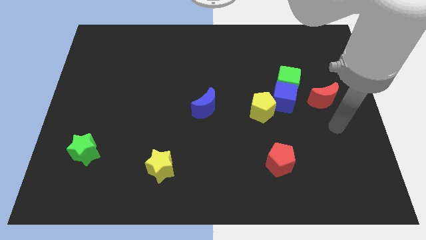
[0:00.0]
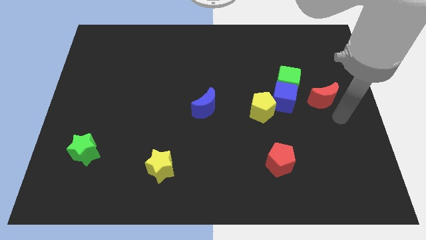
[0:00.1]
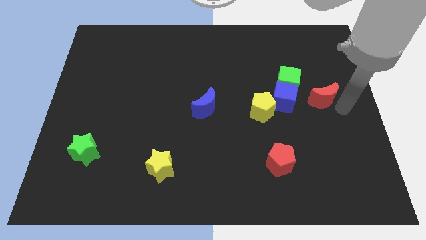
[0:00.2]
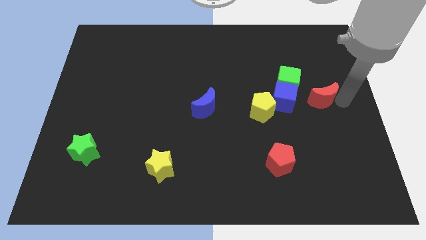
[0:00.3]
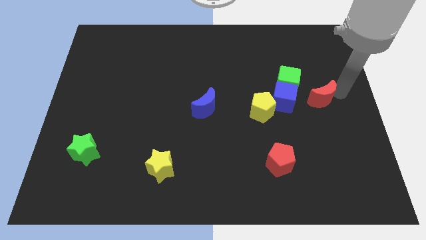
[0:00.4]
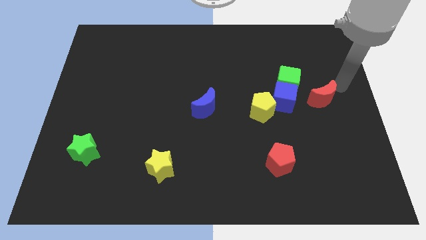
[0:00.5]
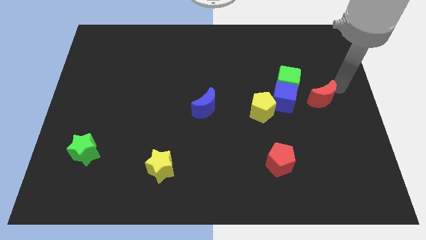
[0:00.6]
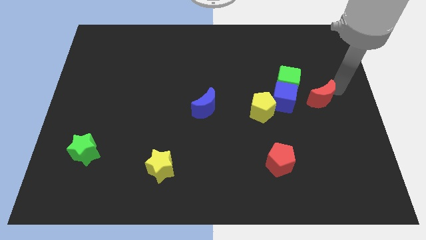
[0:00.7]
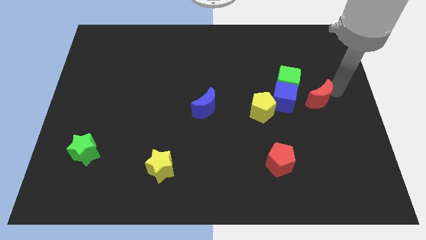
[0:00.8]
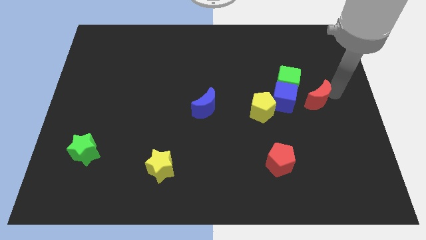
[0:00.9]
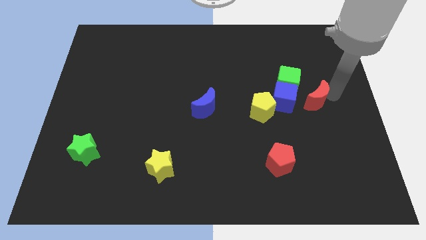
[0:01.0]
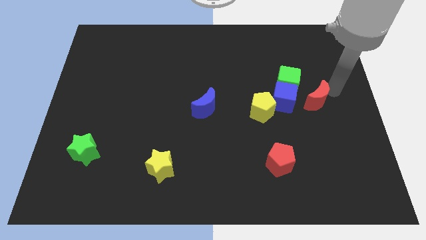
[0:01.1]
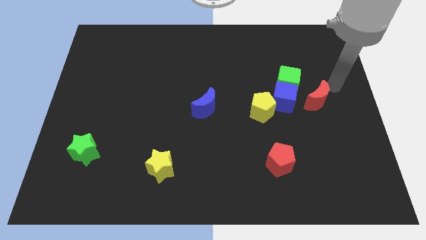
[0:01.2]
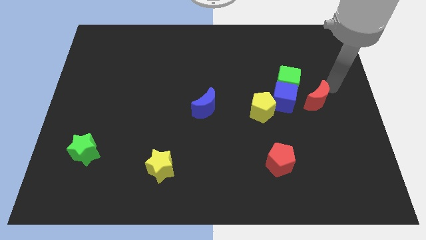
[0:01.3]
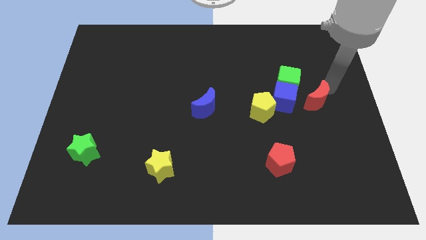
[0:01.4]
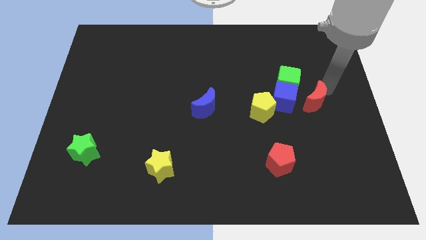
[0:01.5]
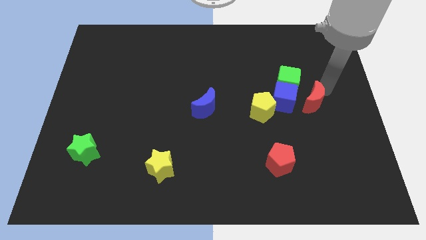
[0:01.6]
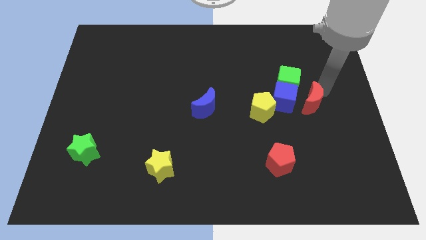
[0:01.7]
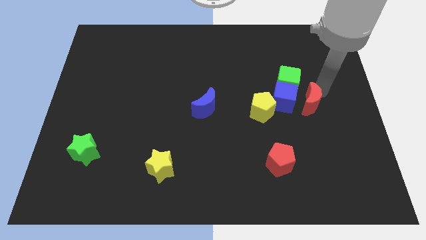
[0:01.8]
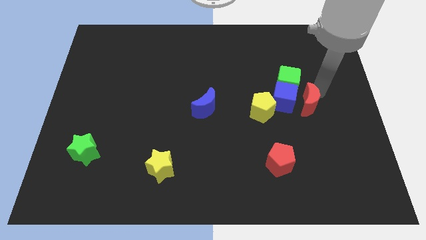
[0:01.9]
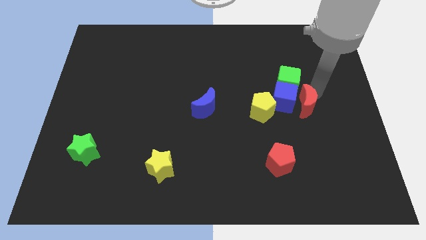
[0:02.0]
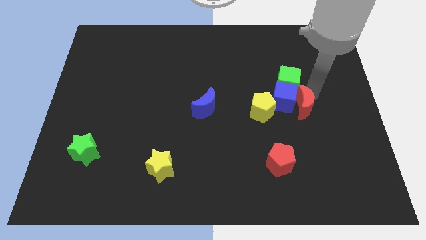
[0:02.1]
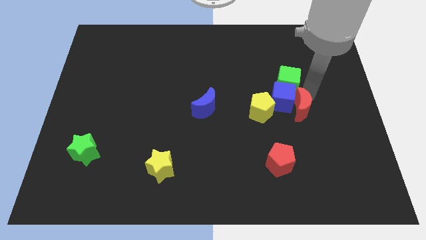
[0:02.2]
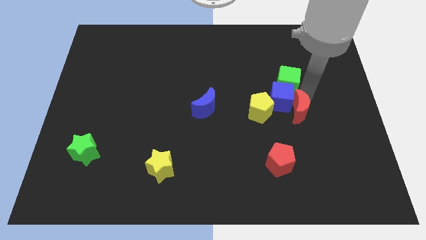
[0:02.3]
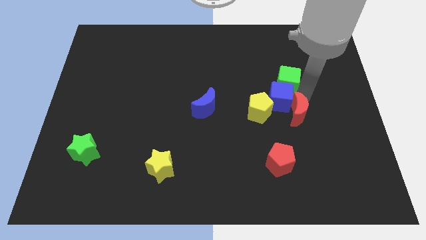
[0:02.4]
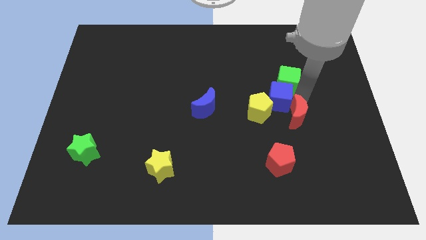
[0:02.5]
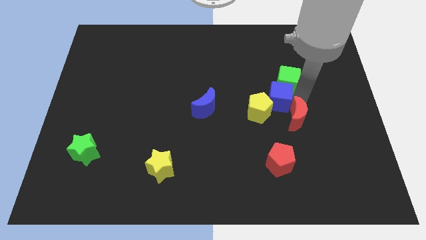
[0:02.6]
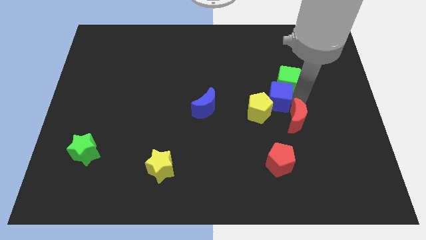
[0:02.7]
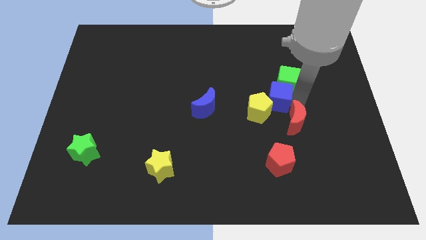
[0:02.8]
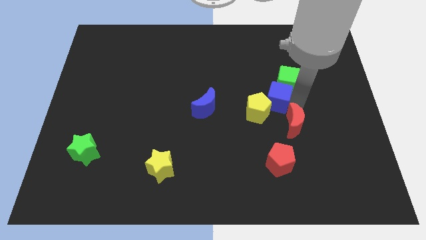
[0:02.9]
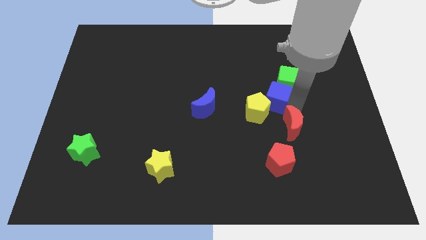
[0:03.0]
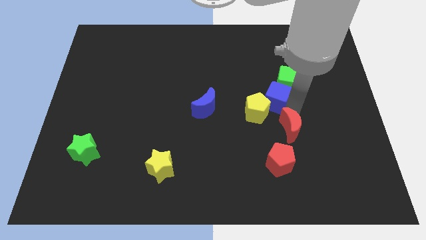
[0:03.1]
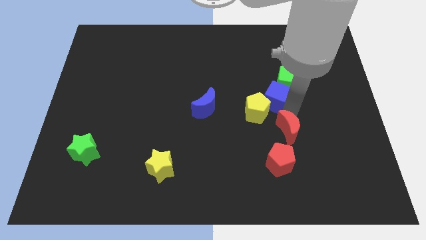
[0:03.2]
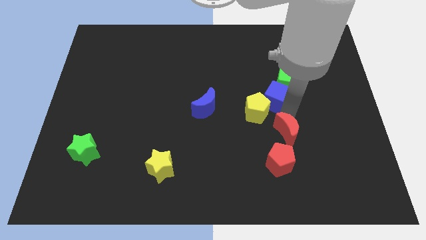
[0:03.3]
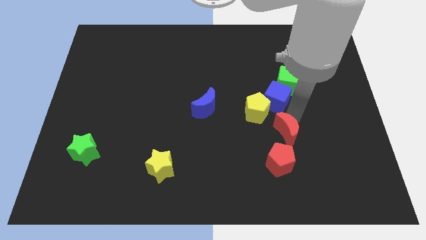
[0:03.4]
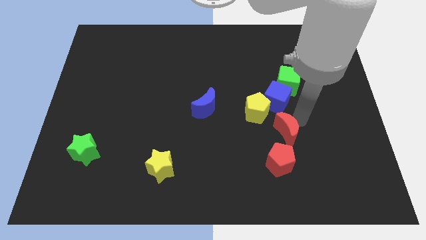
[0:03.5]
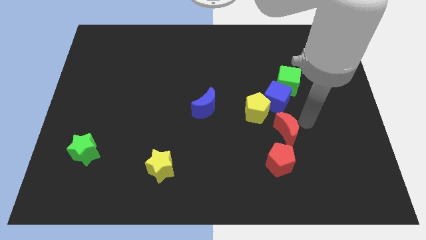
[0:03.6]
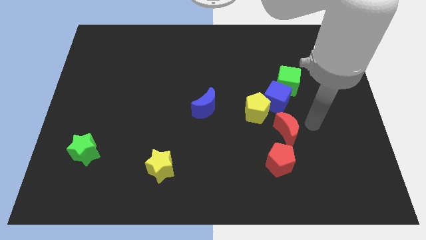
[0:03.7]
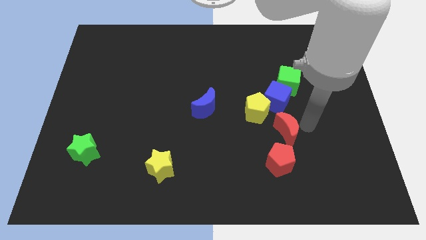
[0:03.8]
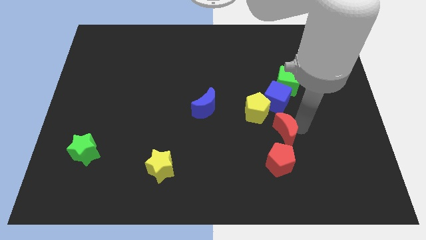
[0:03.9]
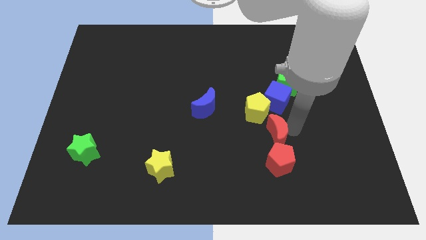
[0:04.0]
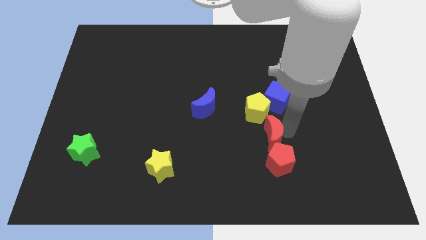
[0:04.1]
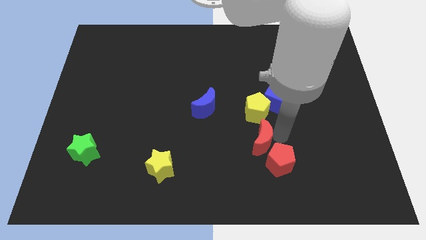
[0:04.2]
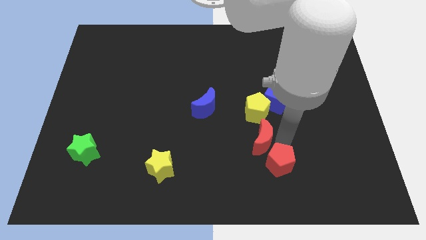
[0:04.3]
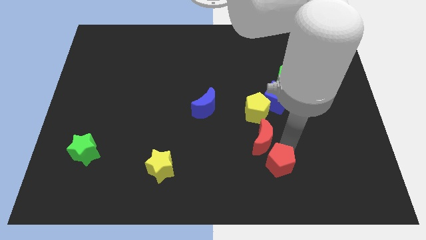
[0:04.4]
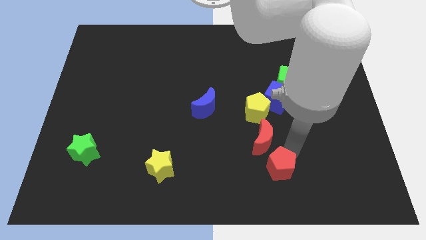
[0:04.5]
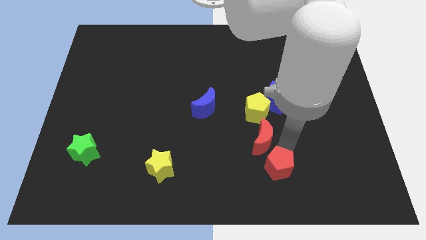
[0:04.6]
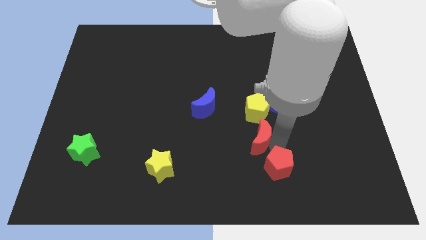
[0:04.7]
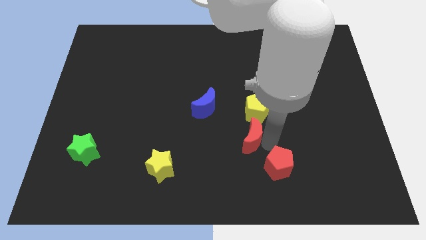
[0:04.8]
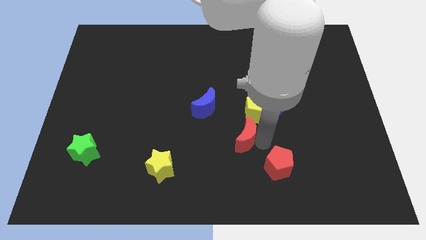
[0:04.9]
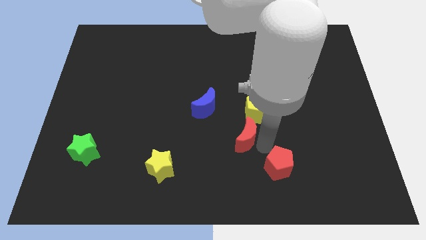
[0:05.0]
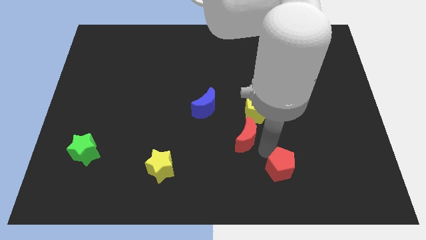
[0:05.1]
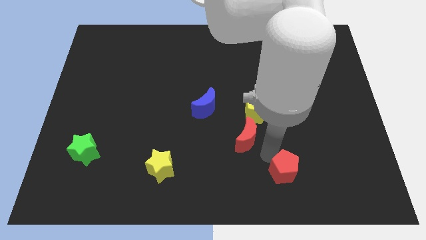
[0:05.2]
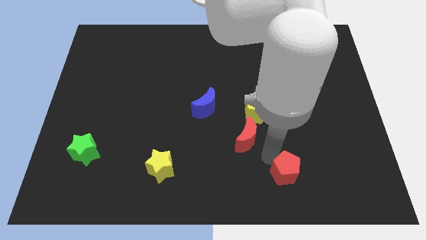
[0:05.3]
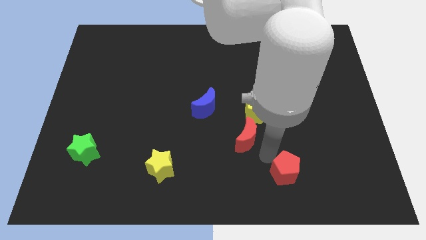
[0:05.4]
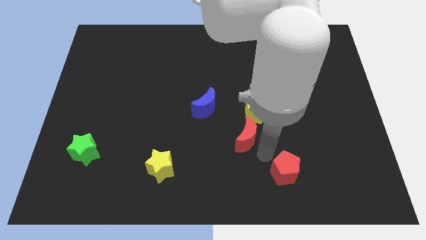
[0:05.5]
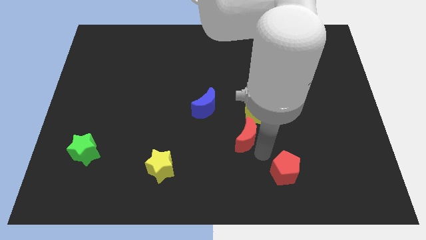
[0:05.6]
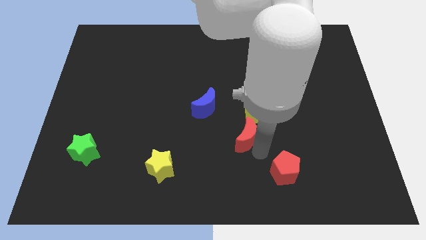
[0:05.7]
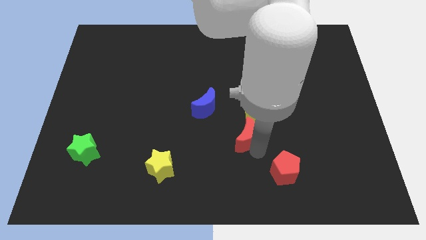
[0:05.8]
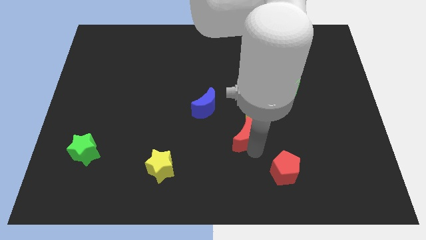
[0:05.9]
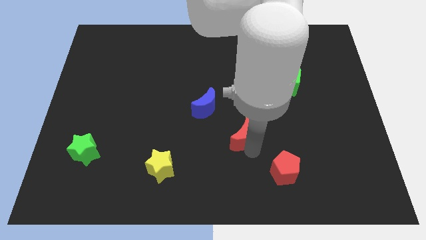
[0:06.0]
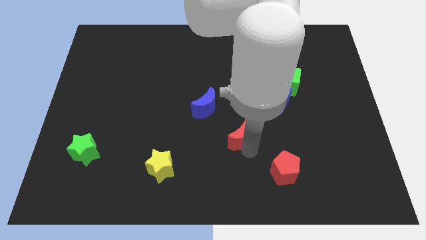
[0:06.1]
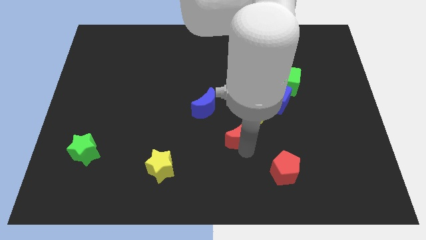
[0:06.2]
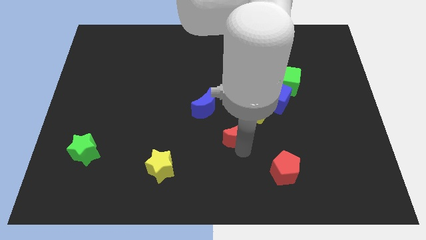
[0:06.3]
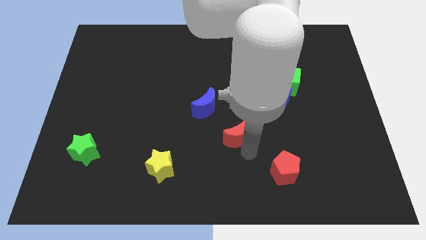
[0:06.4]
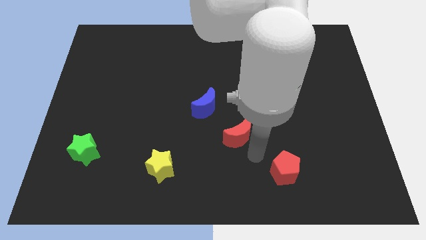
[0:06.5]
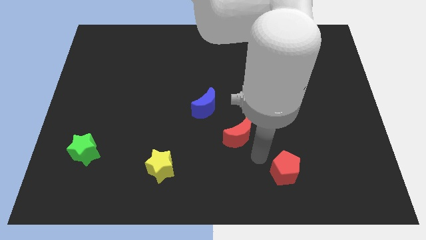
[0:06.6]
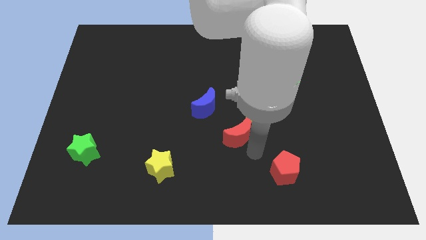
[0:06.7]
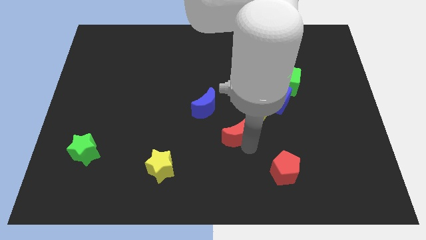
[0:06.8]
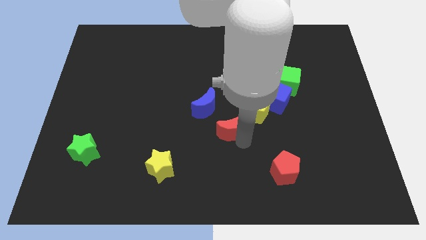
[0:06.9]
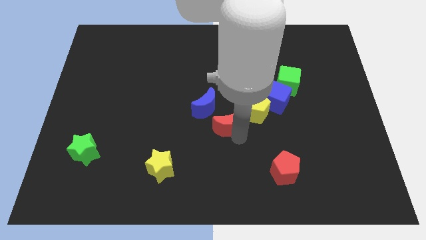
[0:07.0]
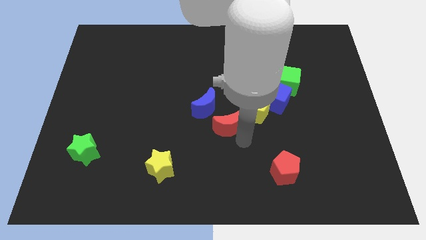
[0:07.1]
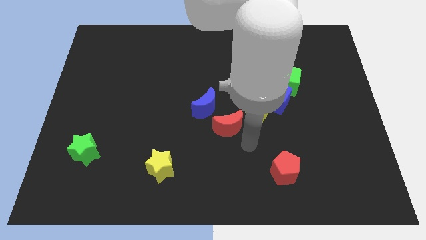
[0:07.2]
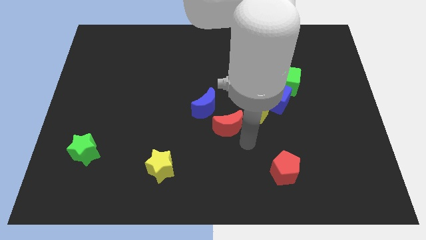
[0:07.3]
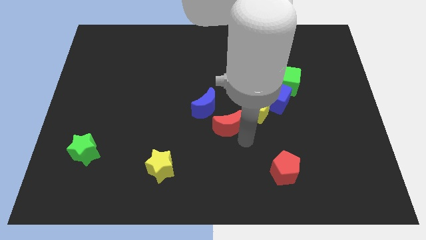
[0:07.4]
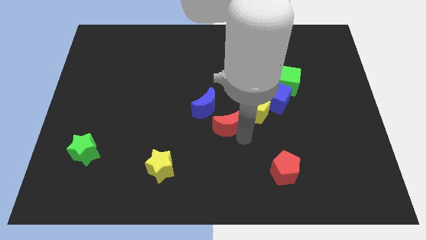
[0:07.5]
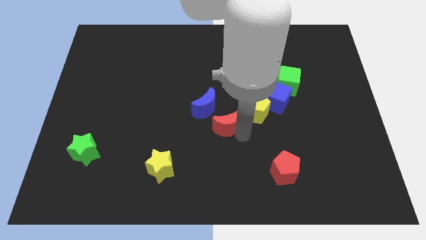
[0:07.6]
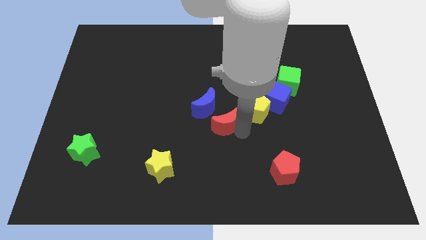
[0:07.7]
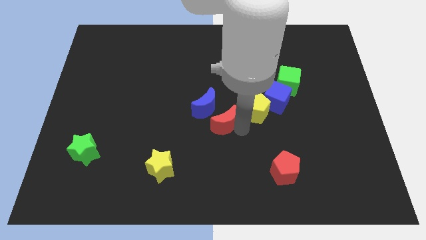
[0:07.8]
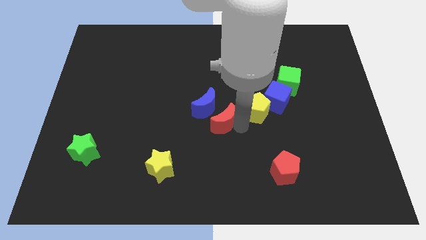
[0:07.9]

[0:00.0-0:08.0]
put the red moon close to the blue moon
